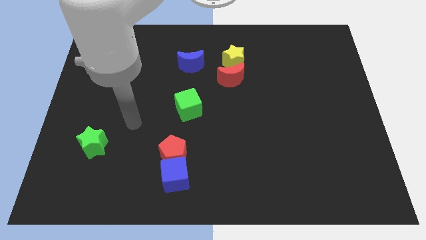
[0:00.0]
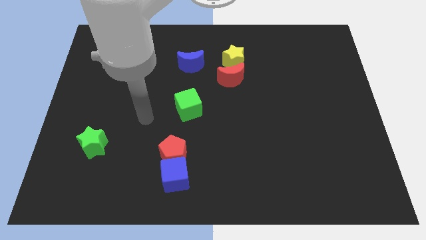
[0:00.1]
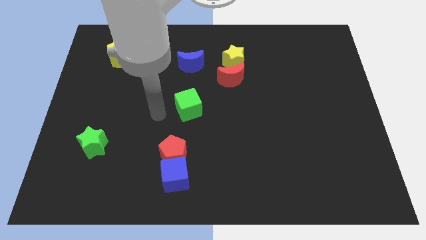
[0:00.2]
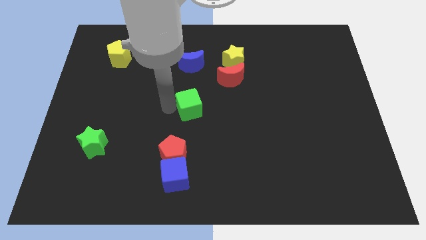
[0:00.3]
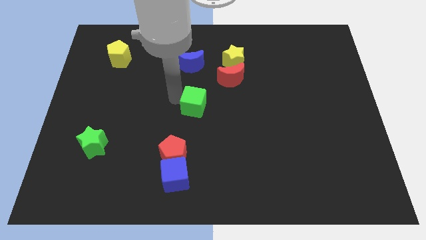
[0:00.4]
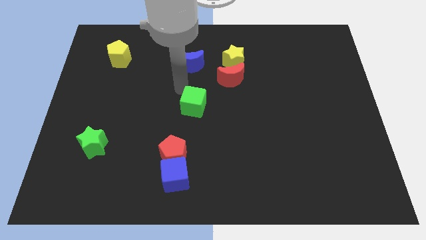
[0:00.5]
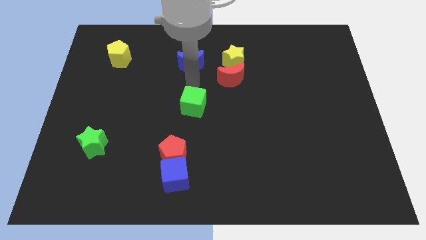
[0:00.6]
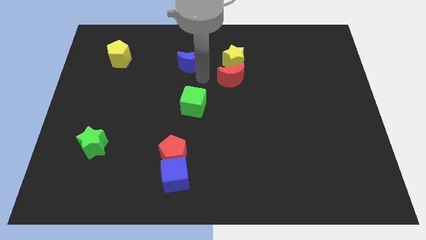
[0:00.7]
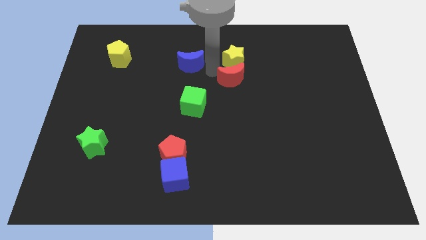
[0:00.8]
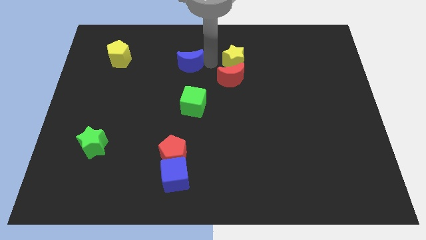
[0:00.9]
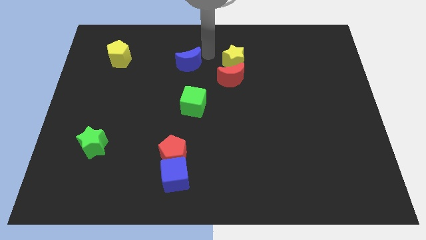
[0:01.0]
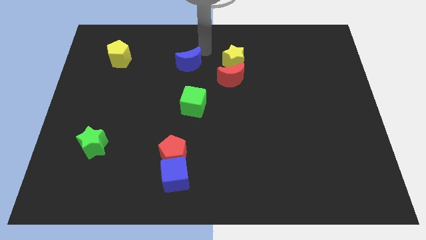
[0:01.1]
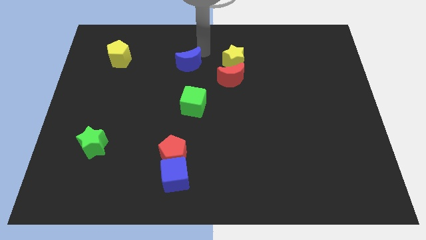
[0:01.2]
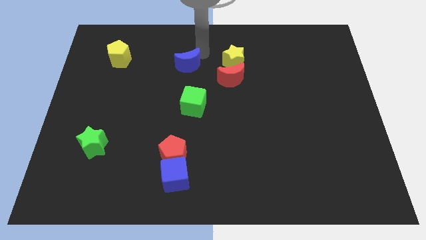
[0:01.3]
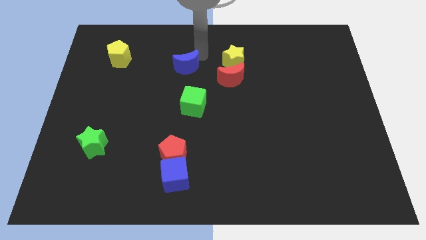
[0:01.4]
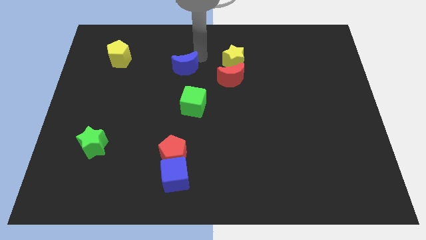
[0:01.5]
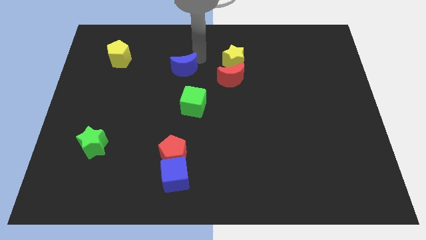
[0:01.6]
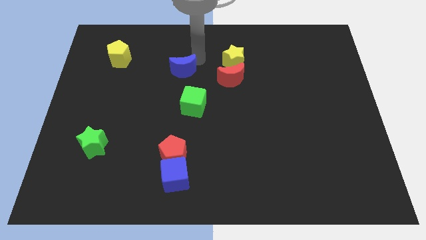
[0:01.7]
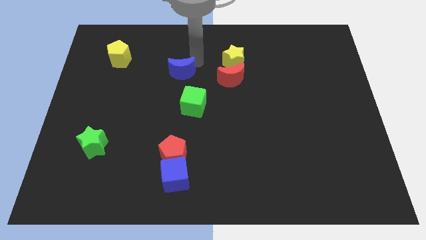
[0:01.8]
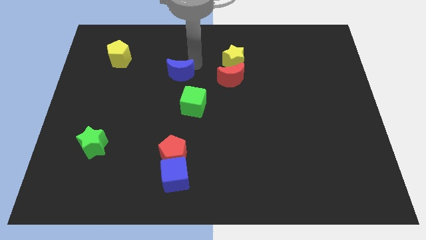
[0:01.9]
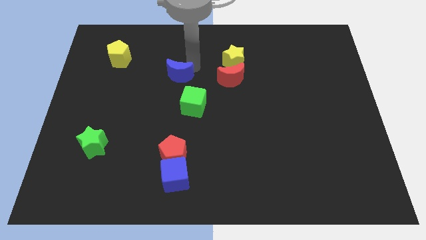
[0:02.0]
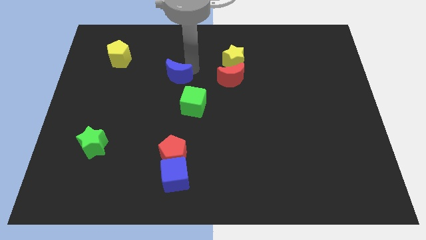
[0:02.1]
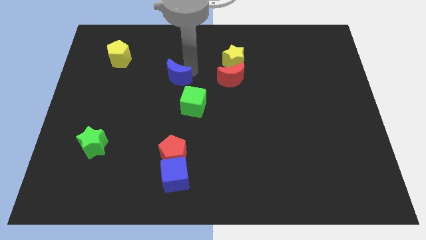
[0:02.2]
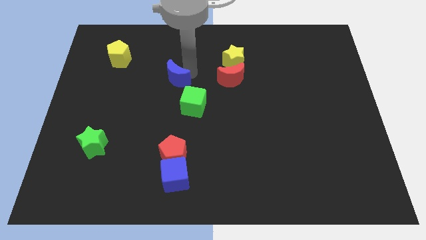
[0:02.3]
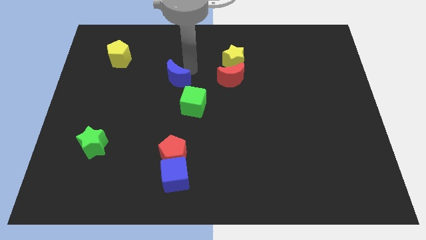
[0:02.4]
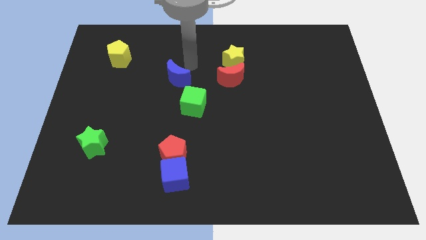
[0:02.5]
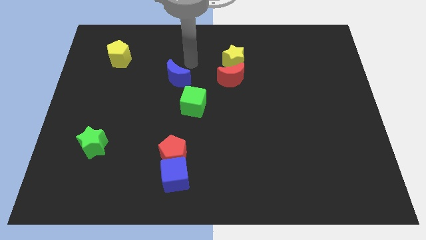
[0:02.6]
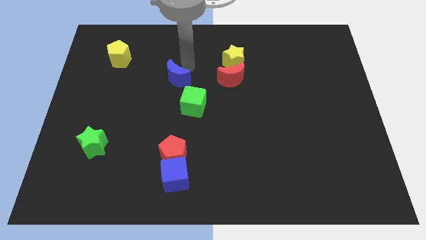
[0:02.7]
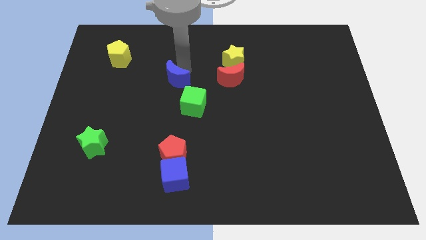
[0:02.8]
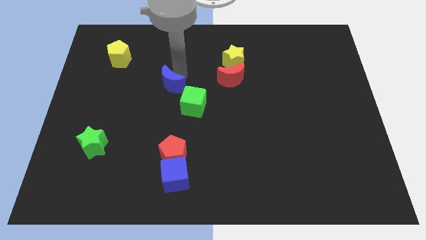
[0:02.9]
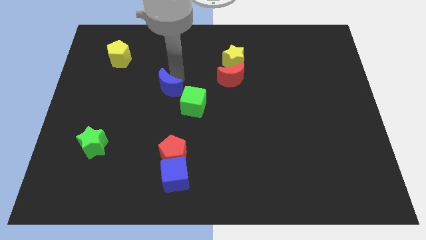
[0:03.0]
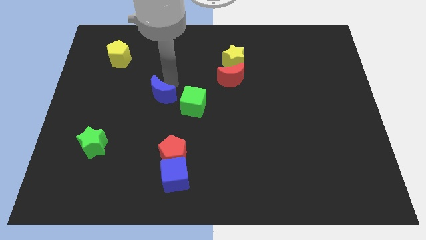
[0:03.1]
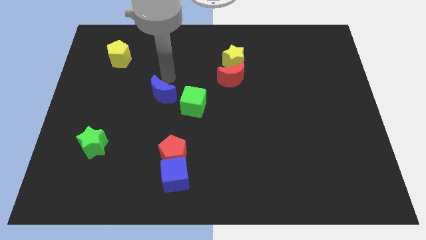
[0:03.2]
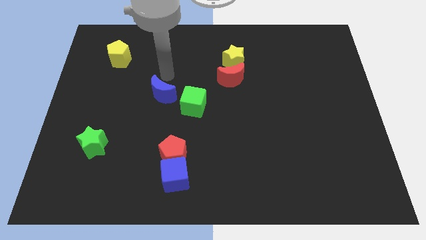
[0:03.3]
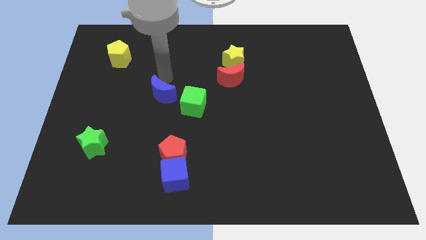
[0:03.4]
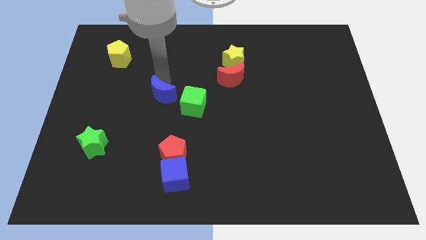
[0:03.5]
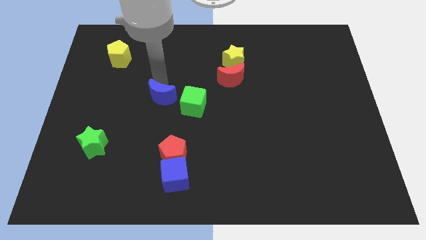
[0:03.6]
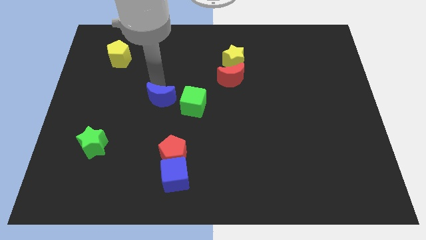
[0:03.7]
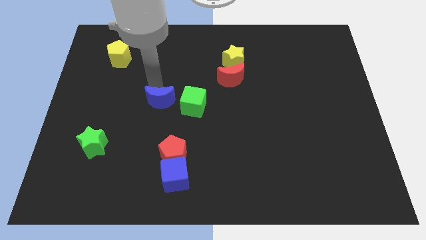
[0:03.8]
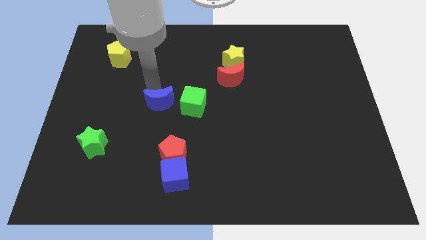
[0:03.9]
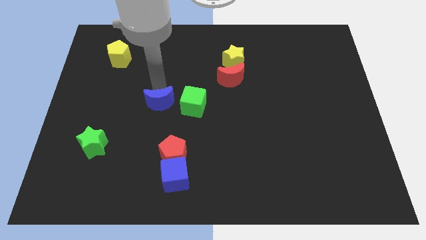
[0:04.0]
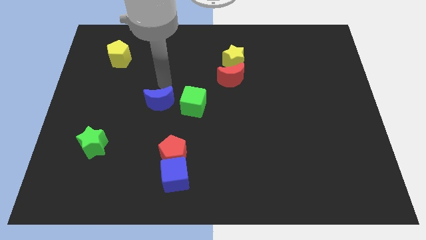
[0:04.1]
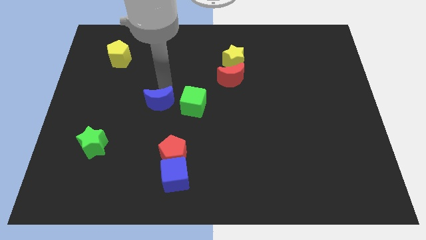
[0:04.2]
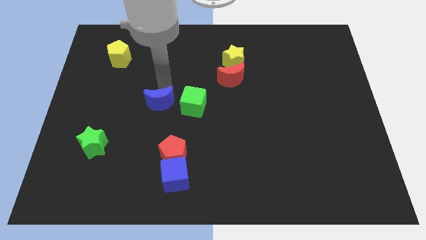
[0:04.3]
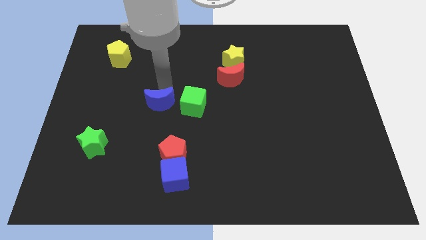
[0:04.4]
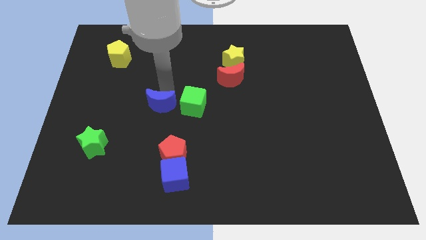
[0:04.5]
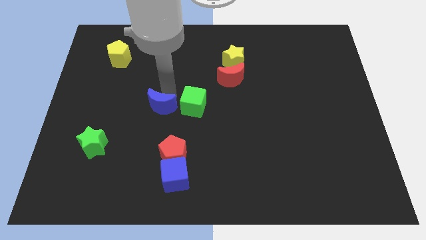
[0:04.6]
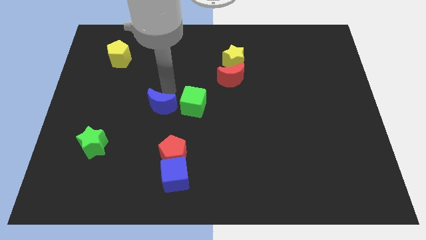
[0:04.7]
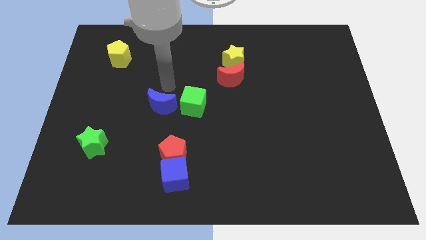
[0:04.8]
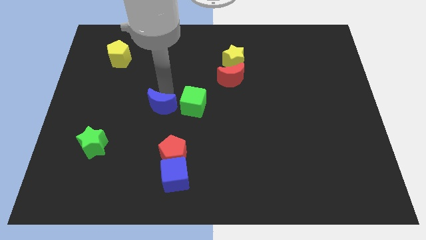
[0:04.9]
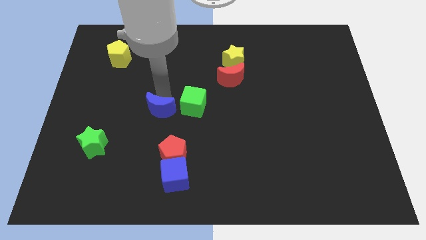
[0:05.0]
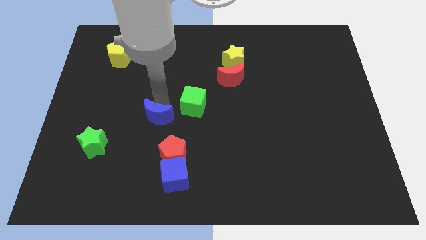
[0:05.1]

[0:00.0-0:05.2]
push the blue moon to the top left side of the red pentagon

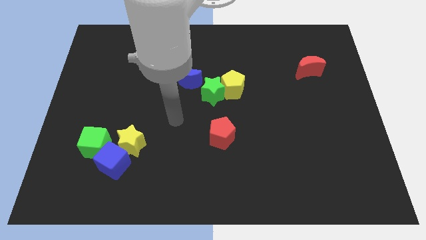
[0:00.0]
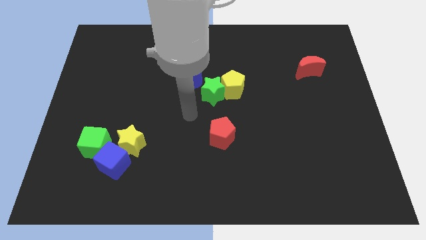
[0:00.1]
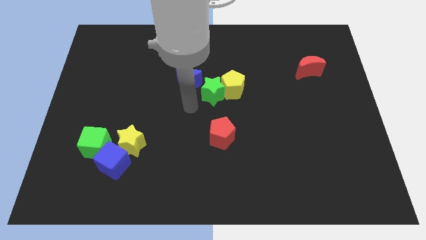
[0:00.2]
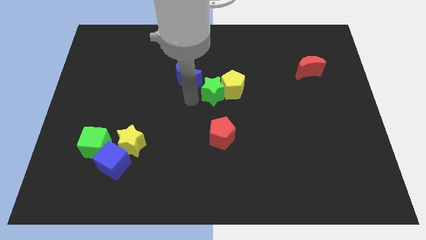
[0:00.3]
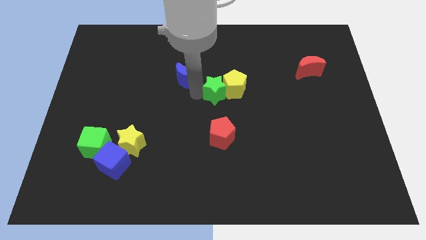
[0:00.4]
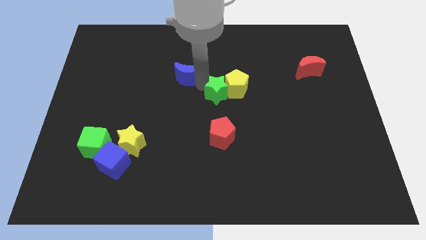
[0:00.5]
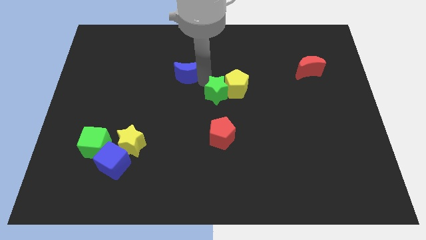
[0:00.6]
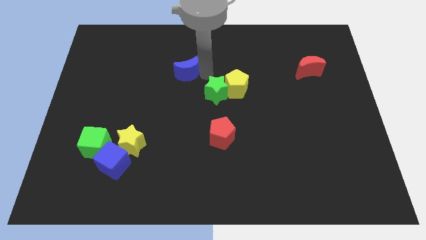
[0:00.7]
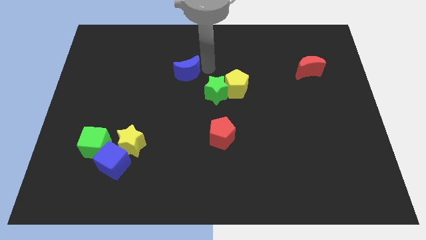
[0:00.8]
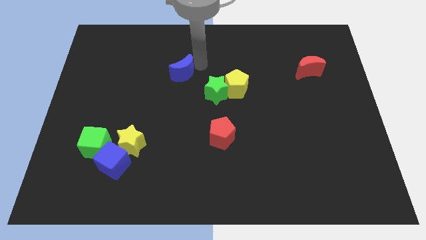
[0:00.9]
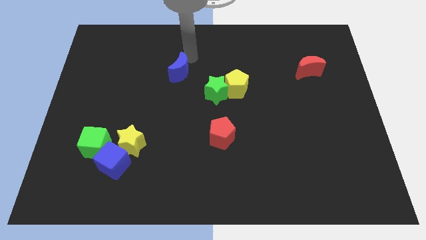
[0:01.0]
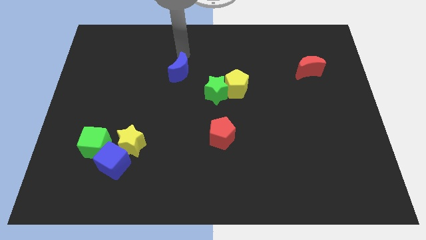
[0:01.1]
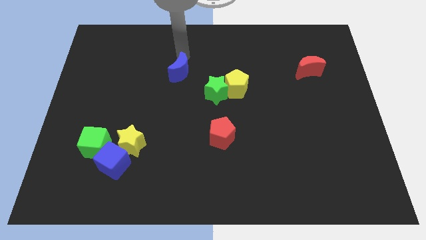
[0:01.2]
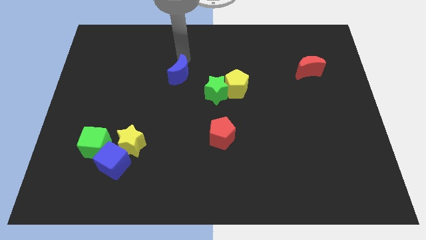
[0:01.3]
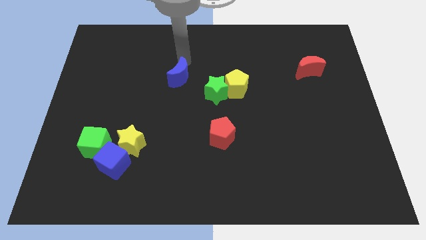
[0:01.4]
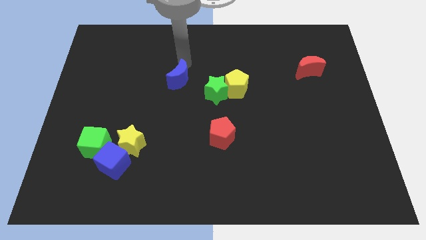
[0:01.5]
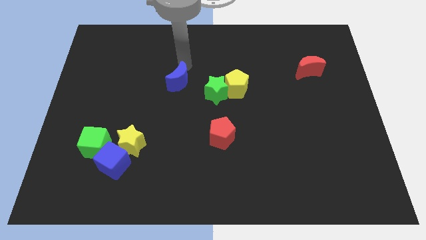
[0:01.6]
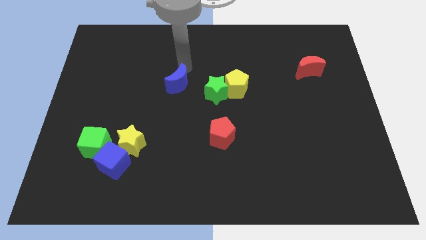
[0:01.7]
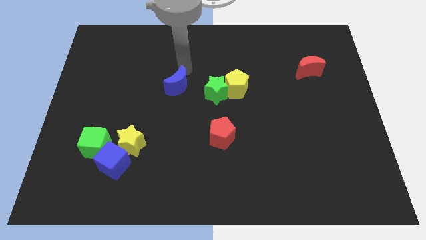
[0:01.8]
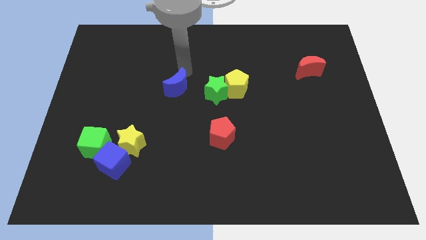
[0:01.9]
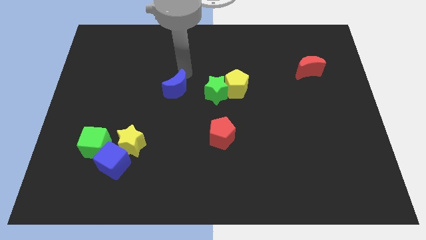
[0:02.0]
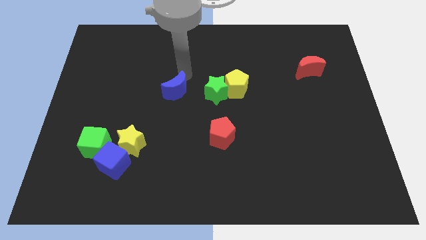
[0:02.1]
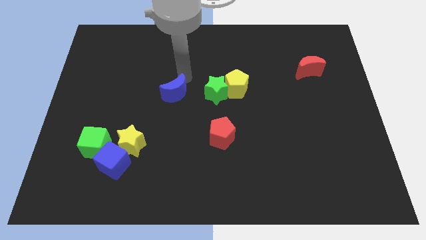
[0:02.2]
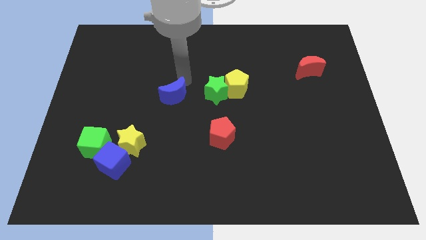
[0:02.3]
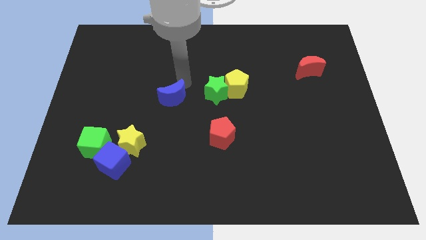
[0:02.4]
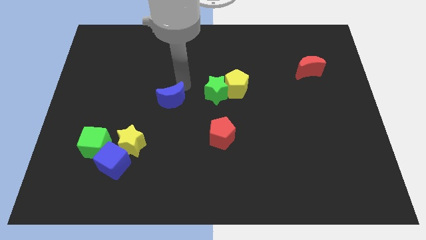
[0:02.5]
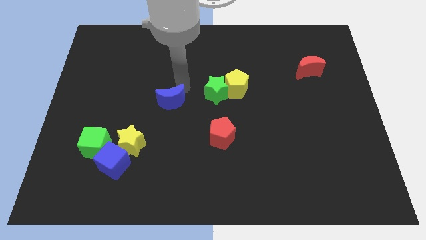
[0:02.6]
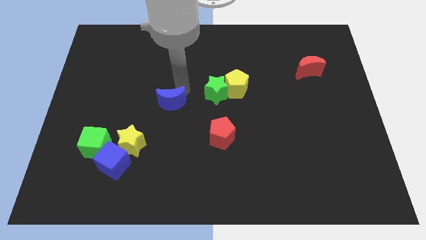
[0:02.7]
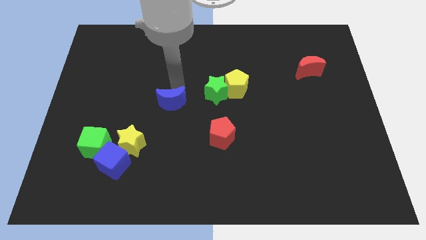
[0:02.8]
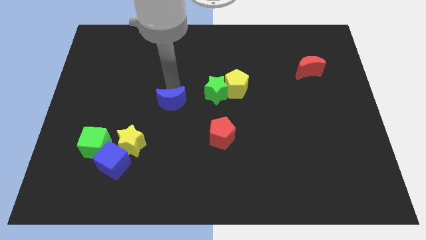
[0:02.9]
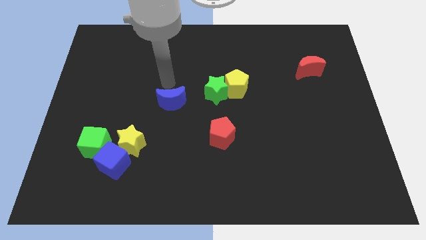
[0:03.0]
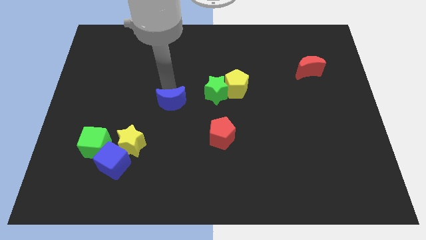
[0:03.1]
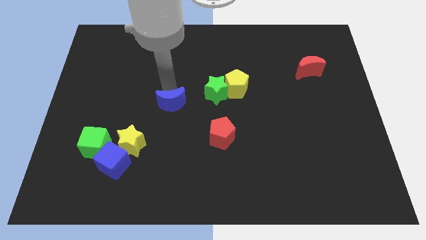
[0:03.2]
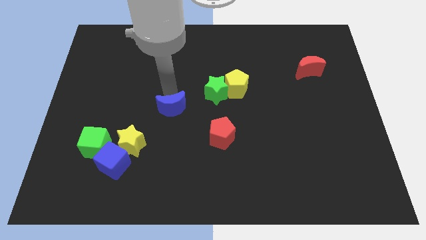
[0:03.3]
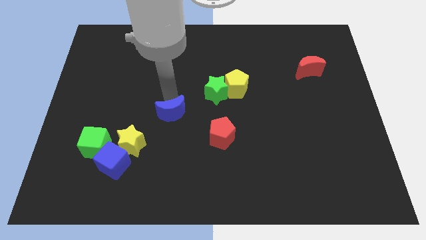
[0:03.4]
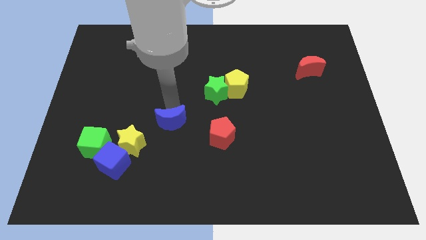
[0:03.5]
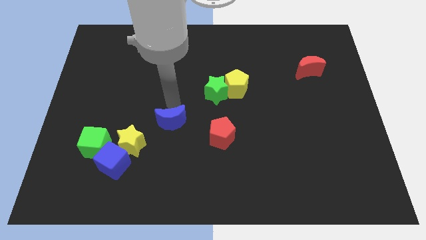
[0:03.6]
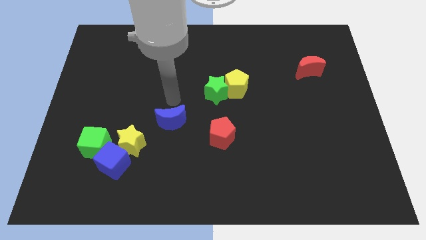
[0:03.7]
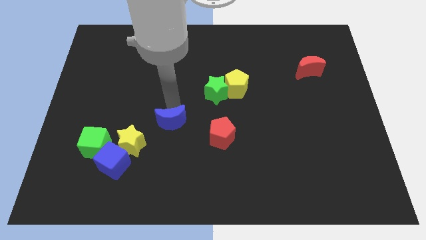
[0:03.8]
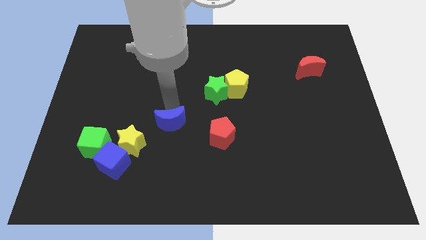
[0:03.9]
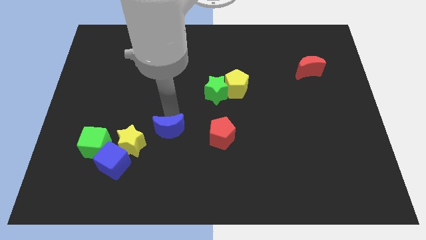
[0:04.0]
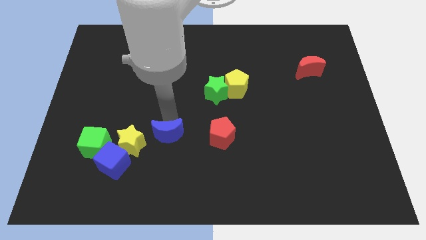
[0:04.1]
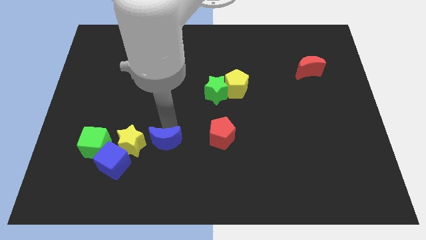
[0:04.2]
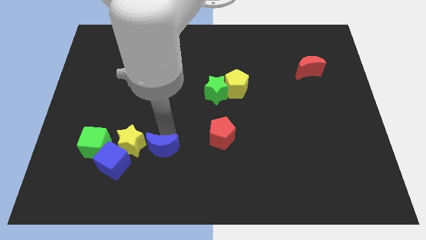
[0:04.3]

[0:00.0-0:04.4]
put the blue moon right of the blue cube
